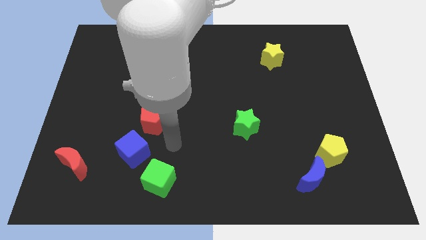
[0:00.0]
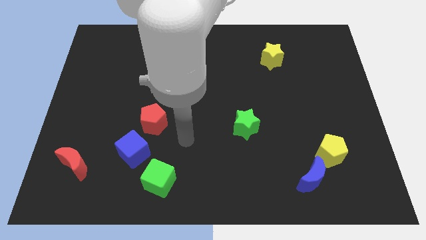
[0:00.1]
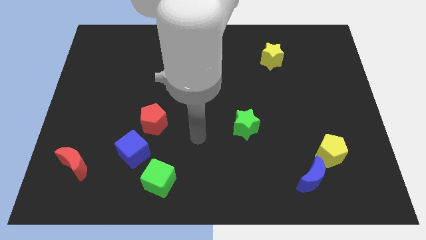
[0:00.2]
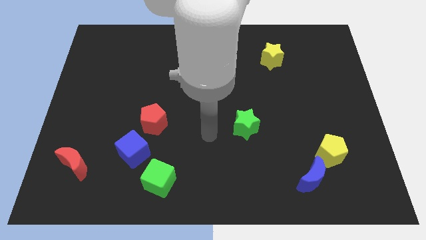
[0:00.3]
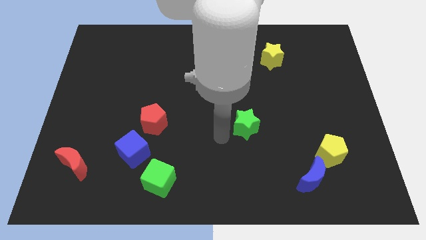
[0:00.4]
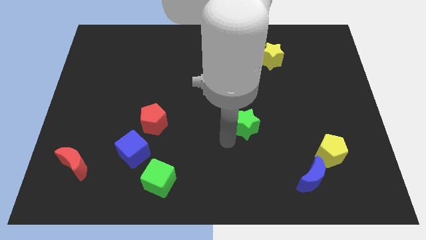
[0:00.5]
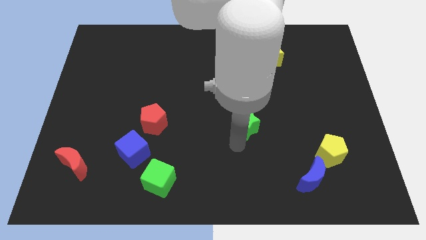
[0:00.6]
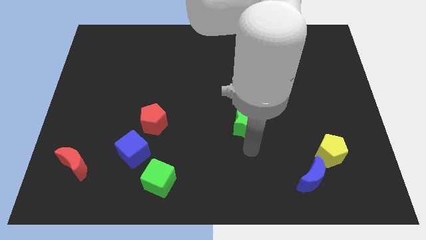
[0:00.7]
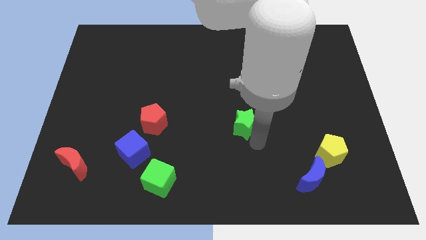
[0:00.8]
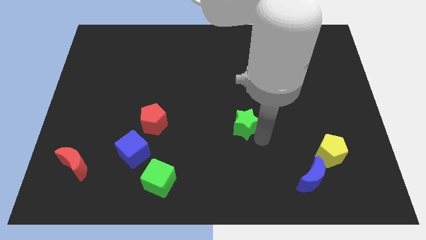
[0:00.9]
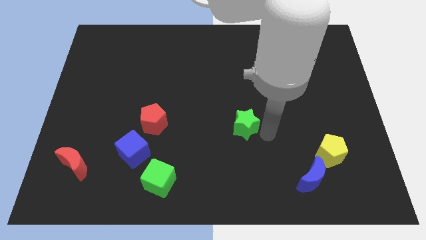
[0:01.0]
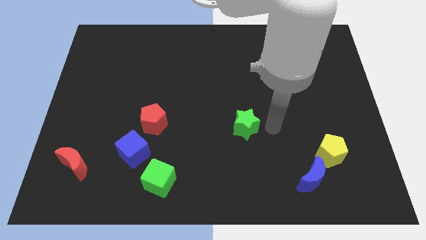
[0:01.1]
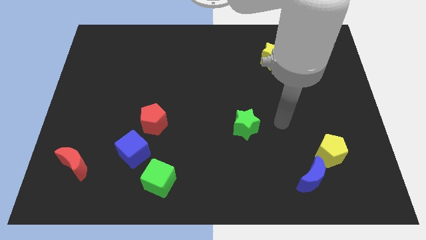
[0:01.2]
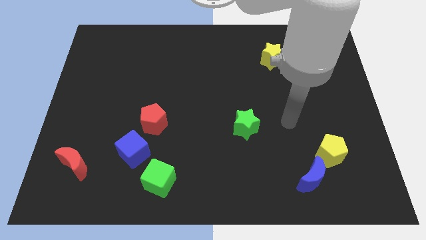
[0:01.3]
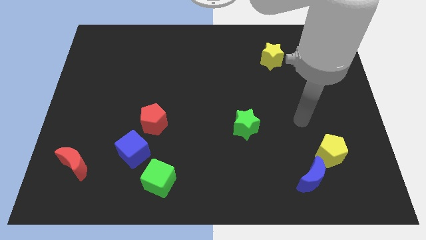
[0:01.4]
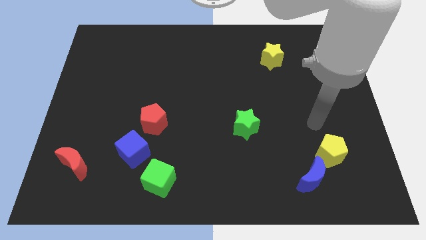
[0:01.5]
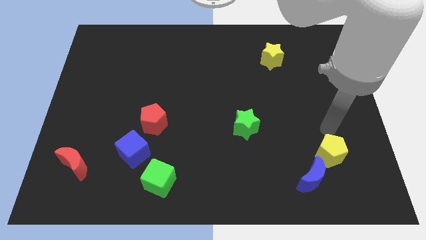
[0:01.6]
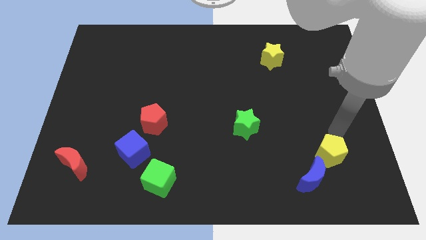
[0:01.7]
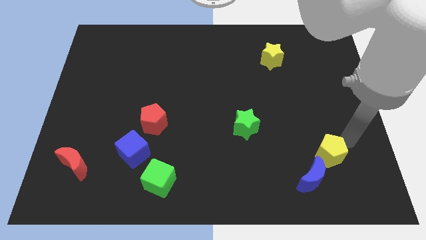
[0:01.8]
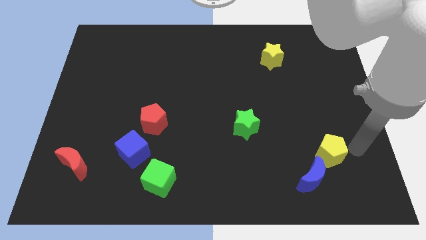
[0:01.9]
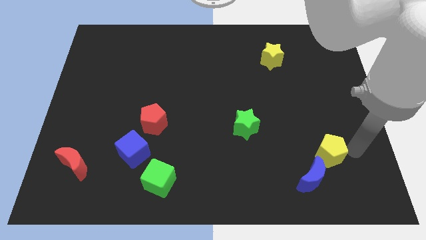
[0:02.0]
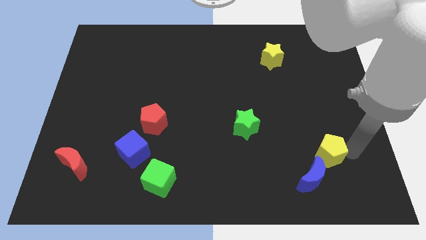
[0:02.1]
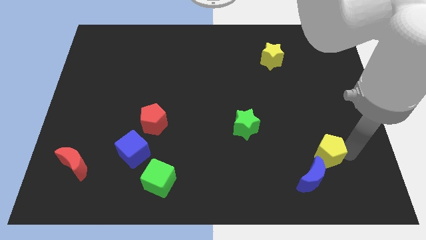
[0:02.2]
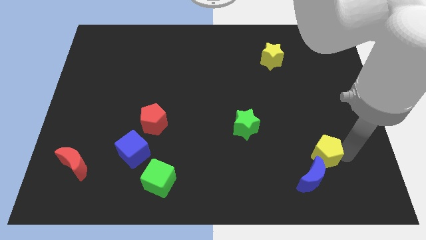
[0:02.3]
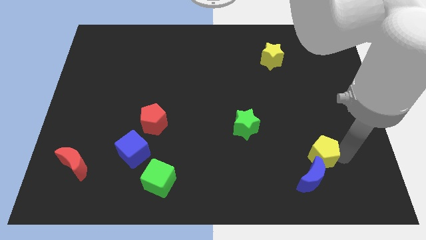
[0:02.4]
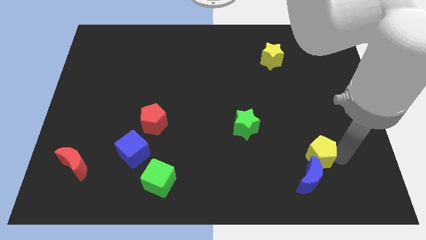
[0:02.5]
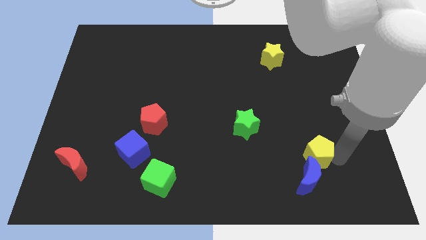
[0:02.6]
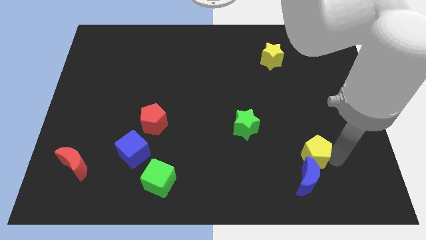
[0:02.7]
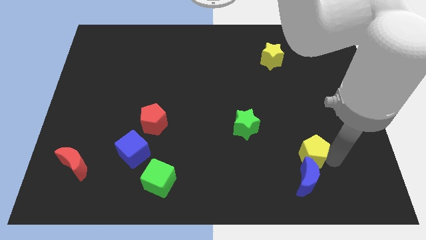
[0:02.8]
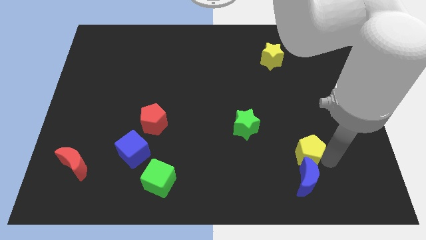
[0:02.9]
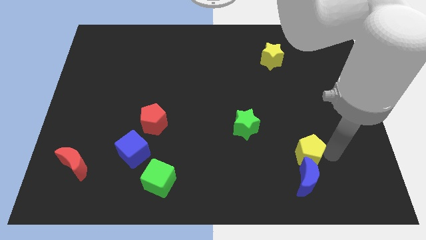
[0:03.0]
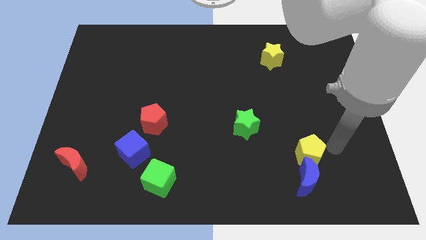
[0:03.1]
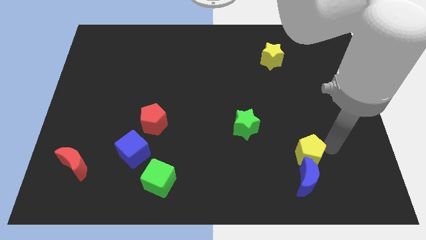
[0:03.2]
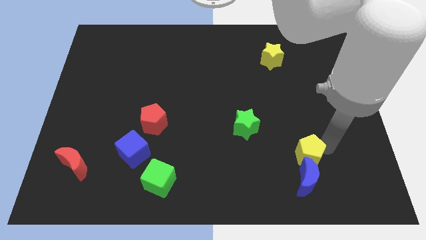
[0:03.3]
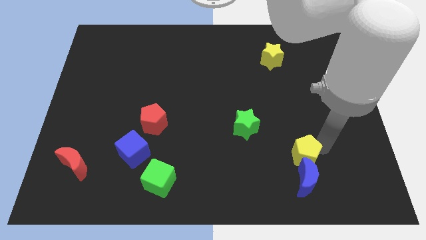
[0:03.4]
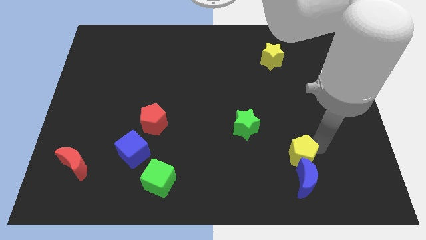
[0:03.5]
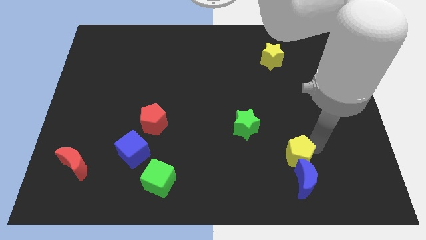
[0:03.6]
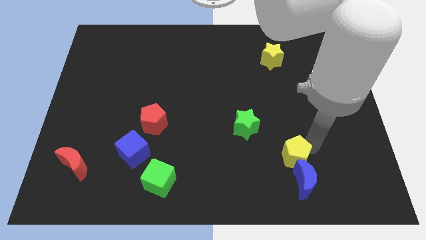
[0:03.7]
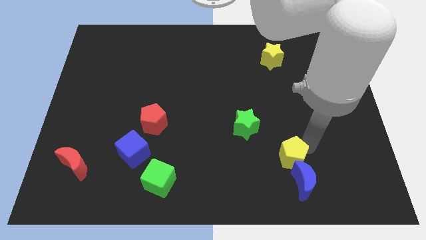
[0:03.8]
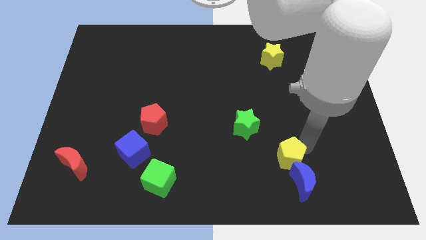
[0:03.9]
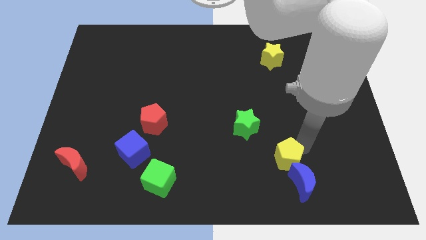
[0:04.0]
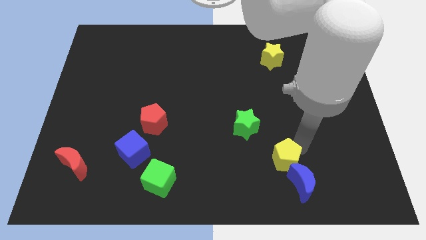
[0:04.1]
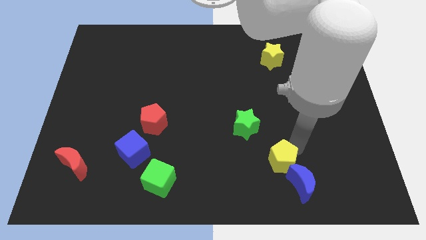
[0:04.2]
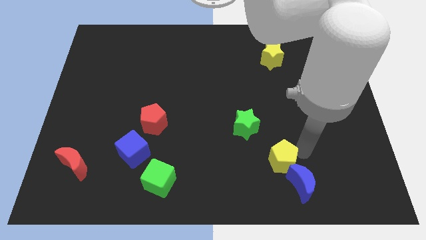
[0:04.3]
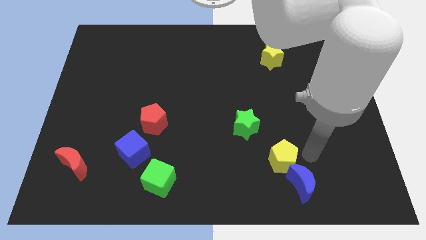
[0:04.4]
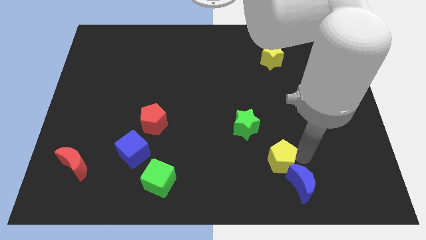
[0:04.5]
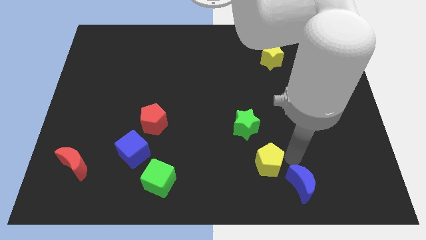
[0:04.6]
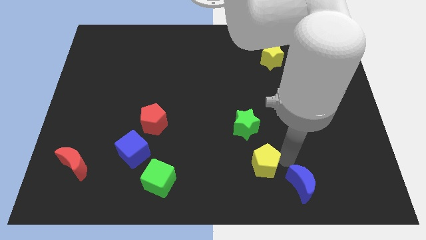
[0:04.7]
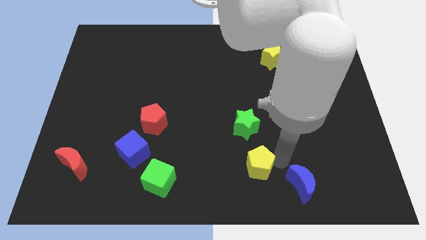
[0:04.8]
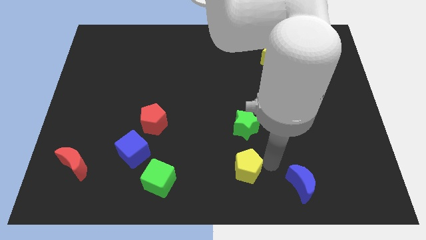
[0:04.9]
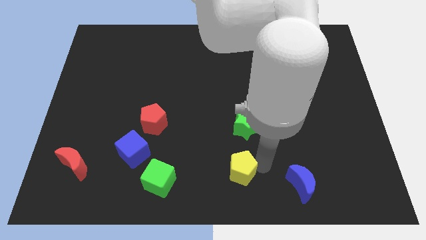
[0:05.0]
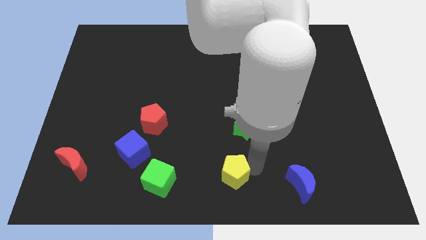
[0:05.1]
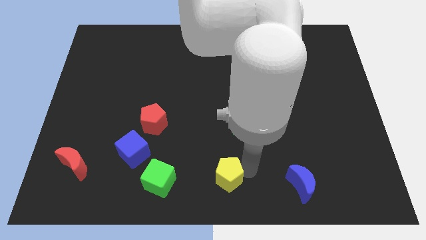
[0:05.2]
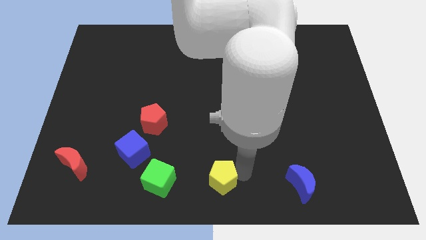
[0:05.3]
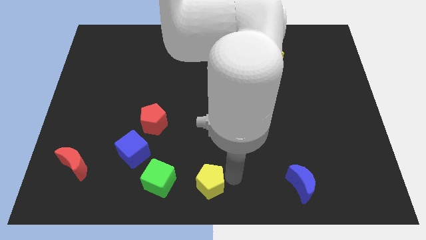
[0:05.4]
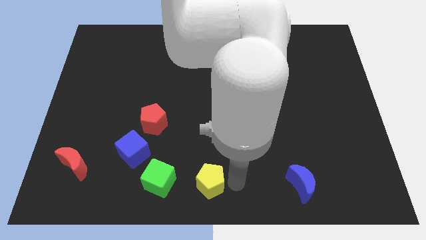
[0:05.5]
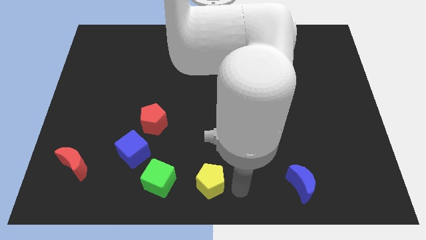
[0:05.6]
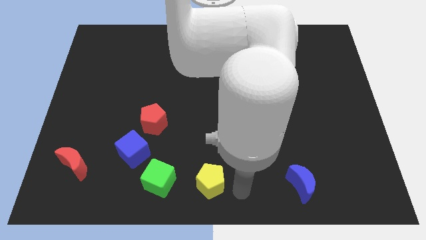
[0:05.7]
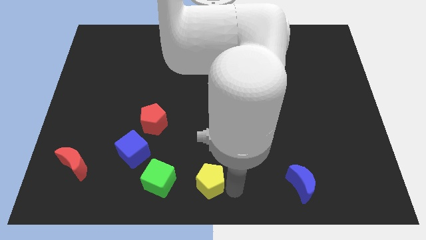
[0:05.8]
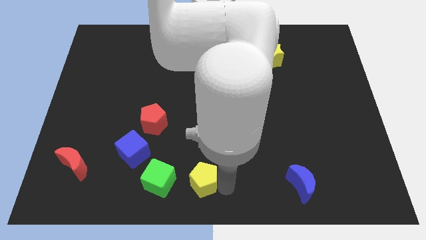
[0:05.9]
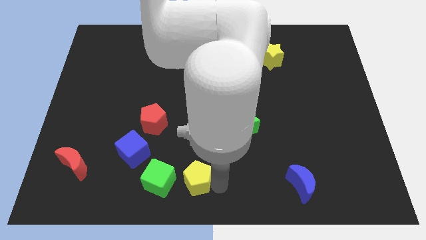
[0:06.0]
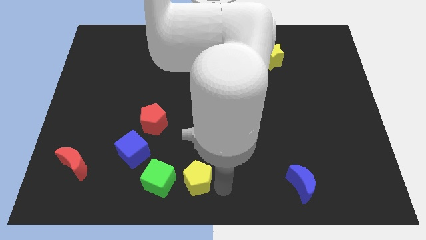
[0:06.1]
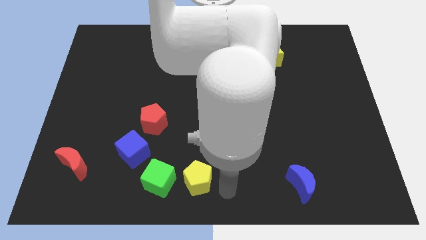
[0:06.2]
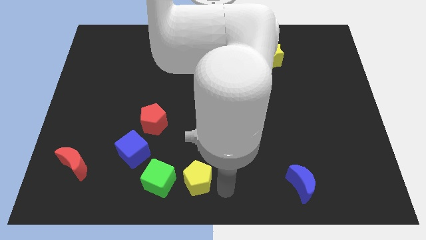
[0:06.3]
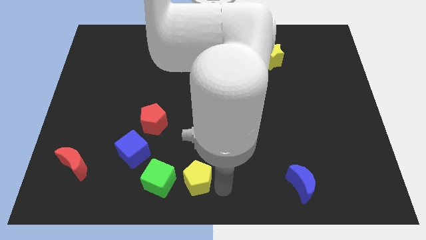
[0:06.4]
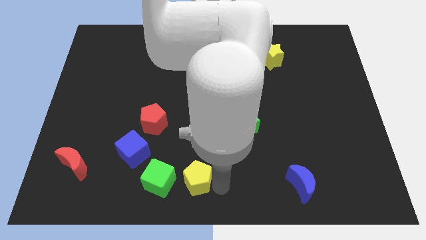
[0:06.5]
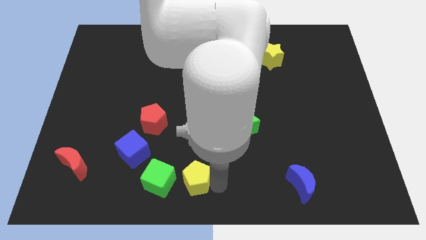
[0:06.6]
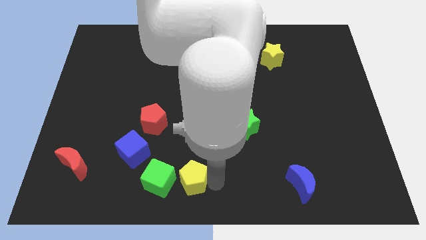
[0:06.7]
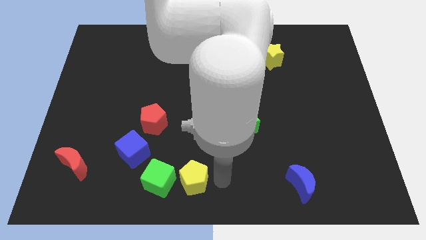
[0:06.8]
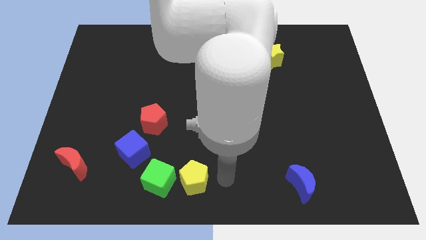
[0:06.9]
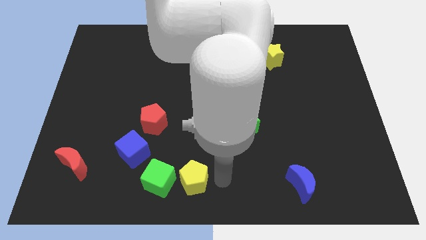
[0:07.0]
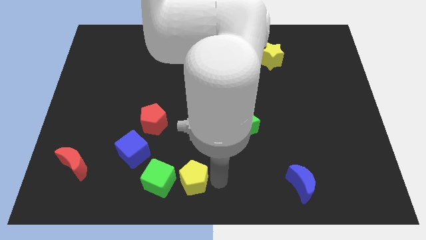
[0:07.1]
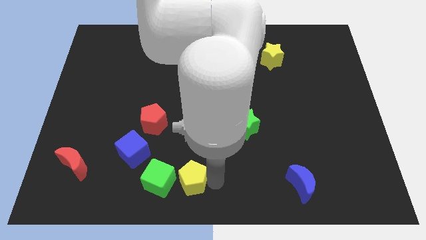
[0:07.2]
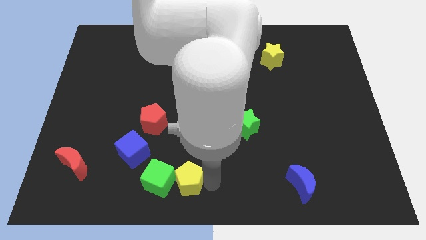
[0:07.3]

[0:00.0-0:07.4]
put the yellow pentagon next to the green cube
